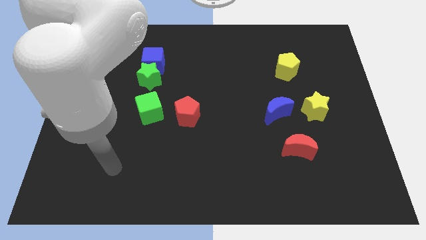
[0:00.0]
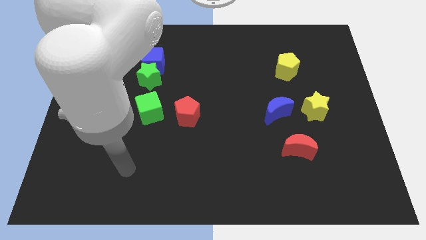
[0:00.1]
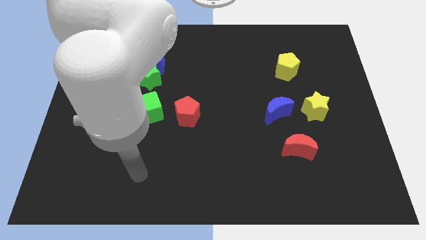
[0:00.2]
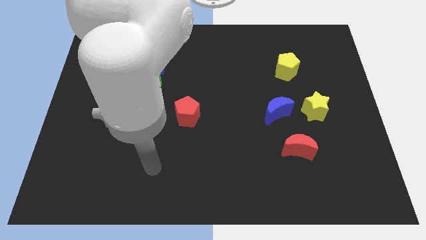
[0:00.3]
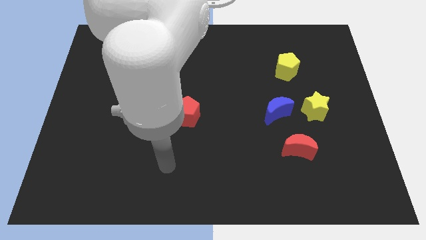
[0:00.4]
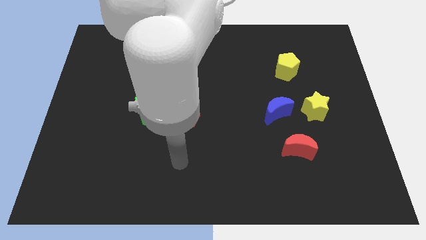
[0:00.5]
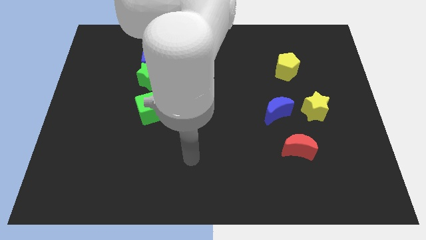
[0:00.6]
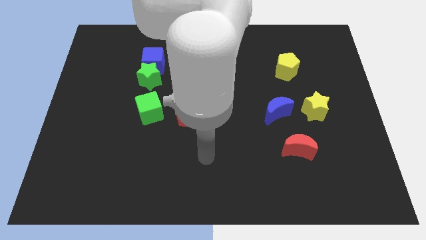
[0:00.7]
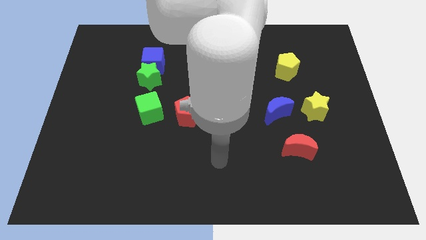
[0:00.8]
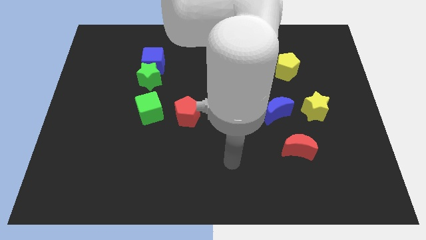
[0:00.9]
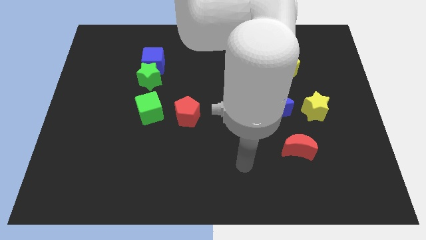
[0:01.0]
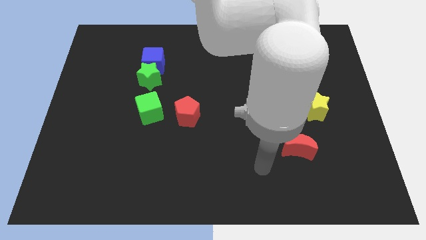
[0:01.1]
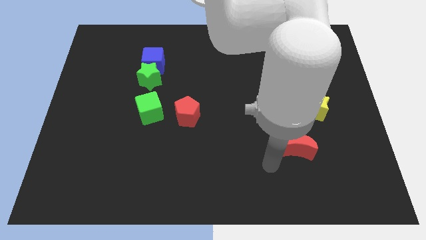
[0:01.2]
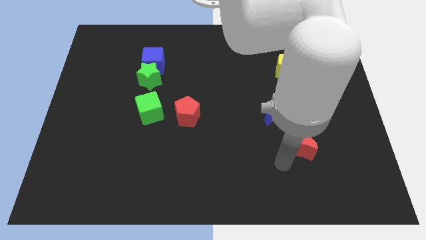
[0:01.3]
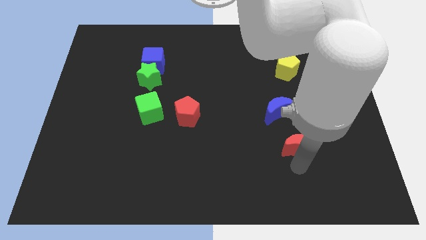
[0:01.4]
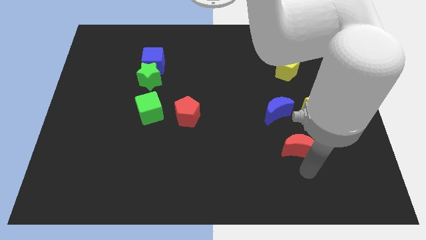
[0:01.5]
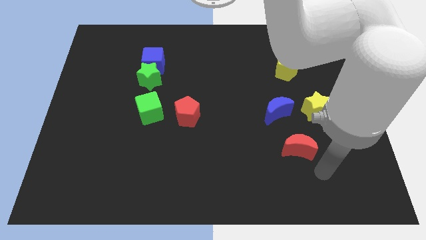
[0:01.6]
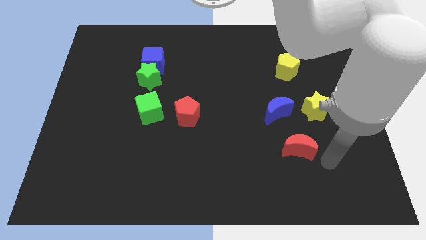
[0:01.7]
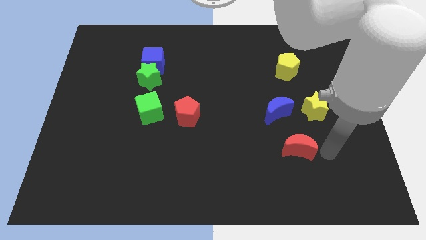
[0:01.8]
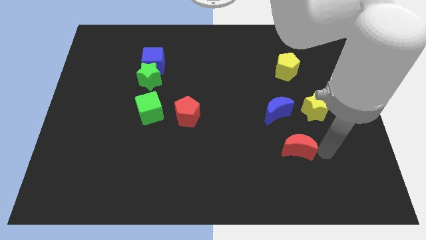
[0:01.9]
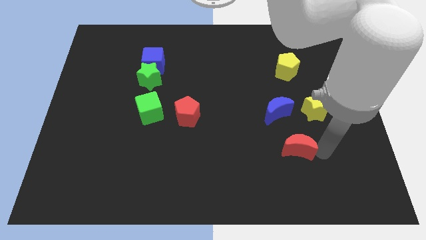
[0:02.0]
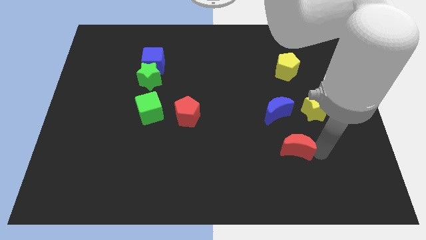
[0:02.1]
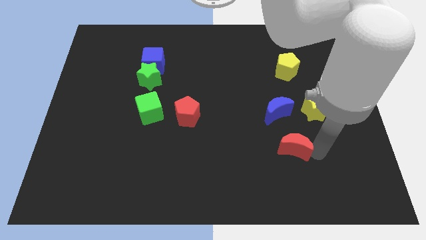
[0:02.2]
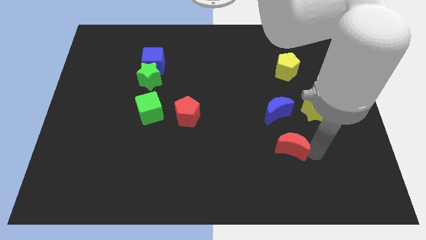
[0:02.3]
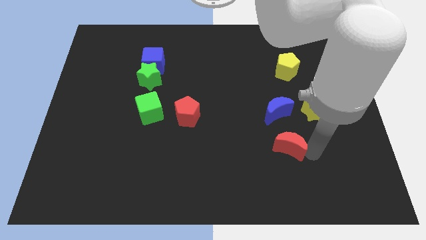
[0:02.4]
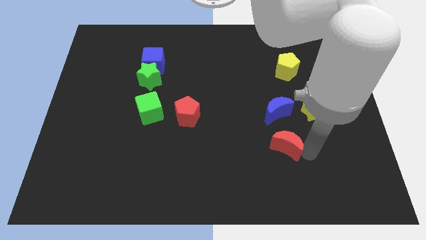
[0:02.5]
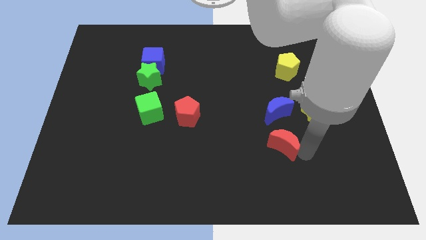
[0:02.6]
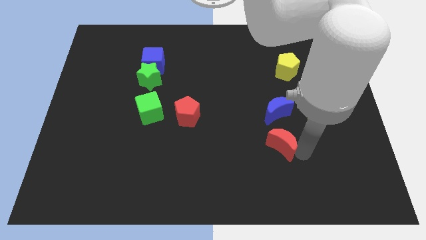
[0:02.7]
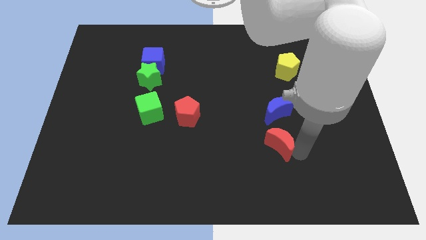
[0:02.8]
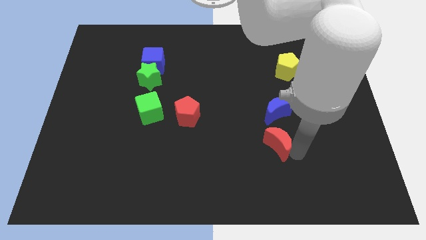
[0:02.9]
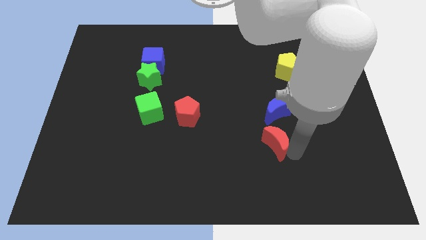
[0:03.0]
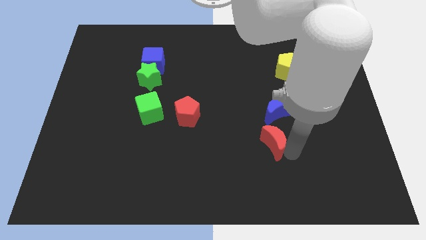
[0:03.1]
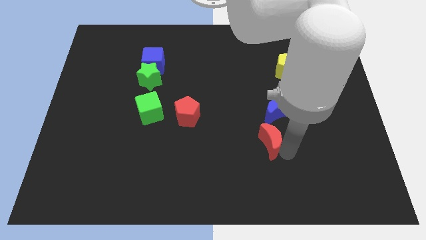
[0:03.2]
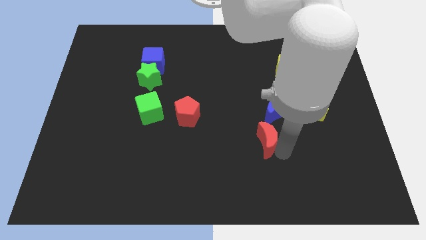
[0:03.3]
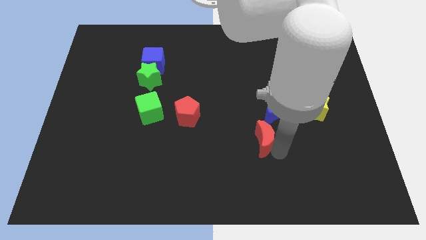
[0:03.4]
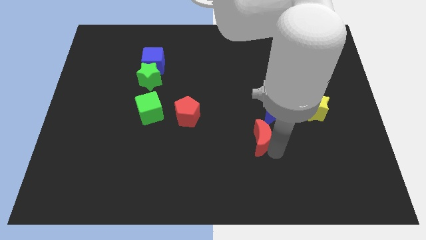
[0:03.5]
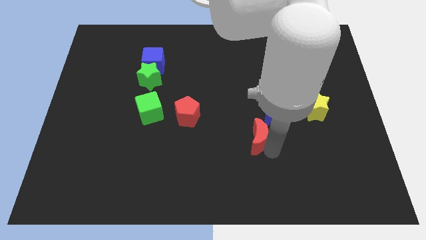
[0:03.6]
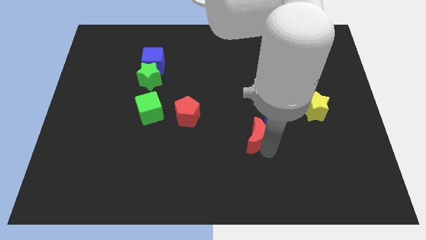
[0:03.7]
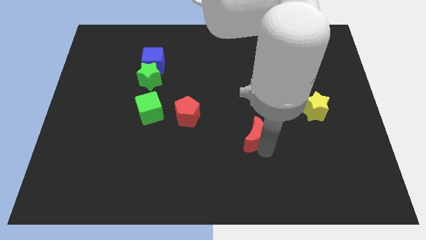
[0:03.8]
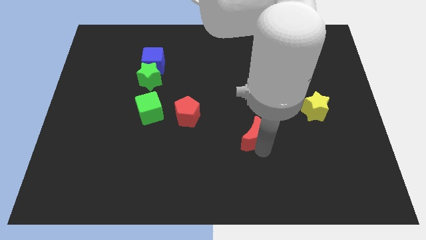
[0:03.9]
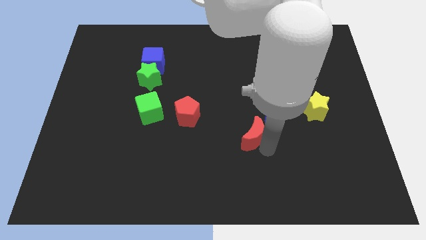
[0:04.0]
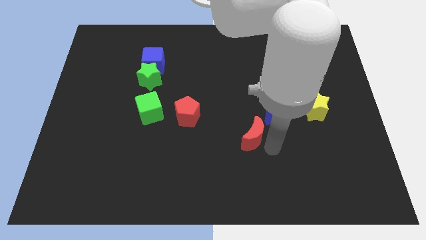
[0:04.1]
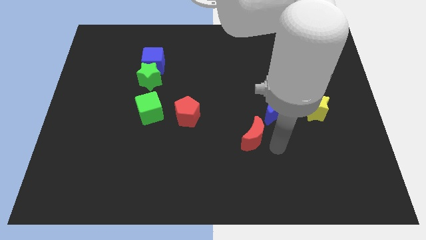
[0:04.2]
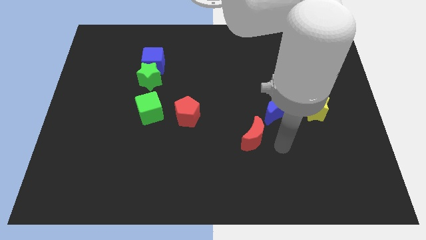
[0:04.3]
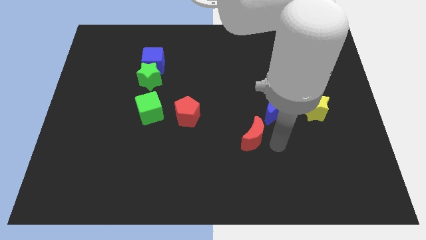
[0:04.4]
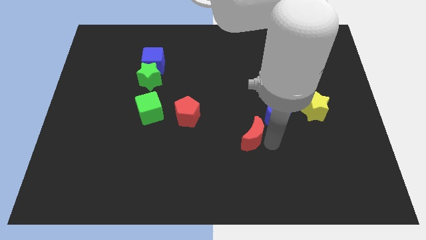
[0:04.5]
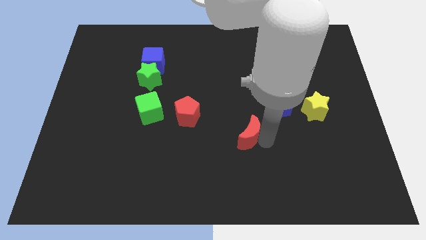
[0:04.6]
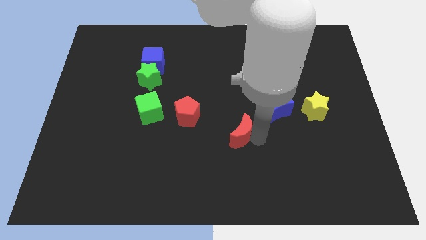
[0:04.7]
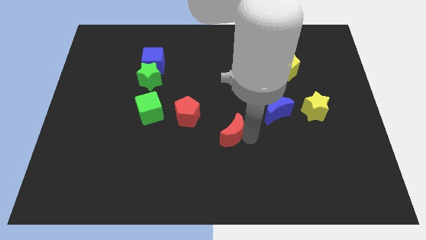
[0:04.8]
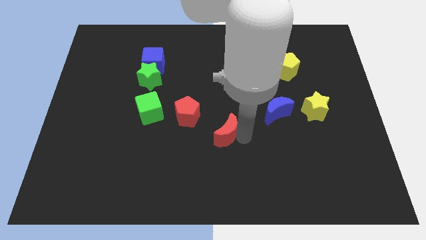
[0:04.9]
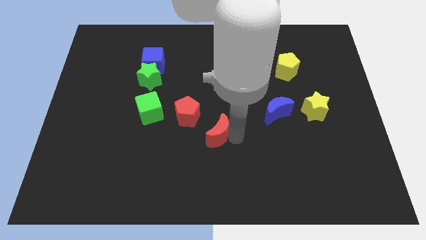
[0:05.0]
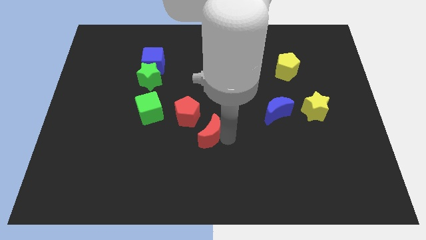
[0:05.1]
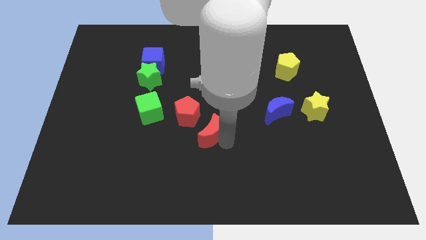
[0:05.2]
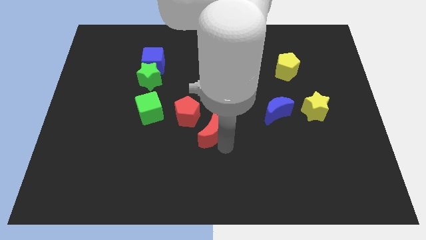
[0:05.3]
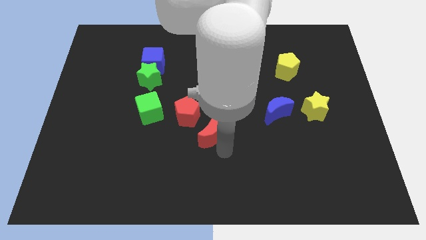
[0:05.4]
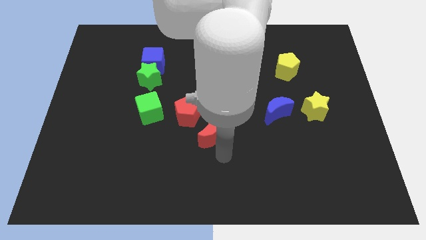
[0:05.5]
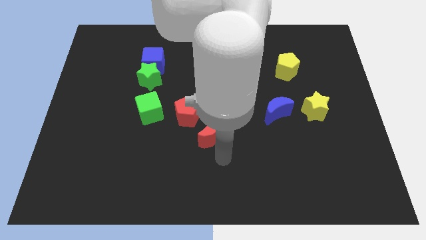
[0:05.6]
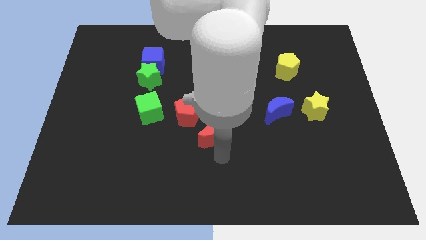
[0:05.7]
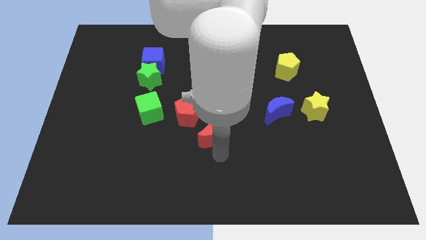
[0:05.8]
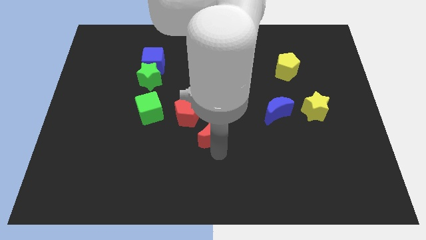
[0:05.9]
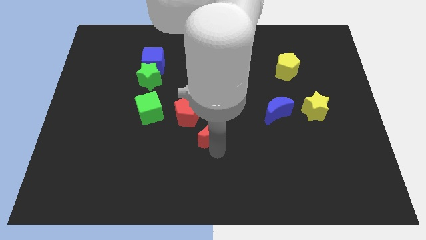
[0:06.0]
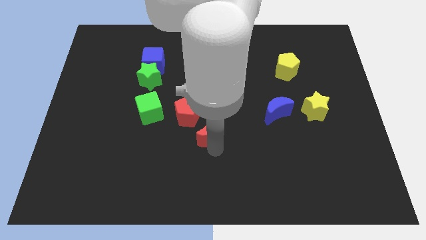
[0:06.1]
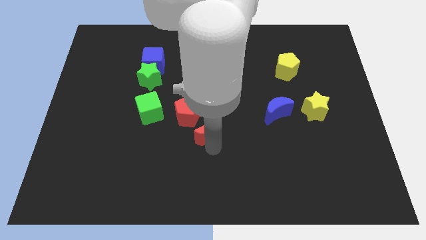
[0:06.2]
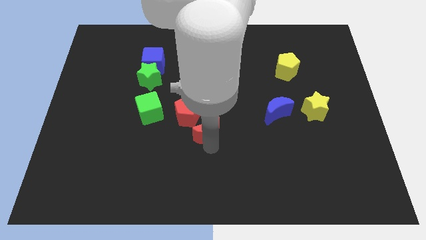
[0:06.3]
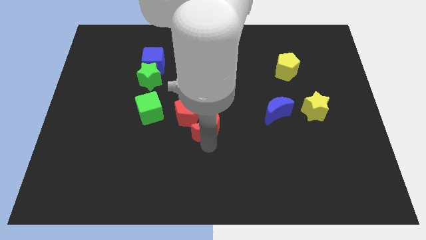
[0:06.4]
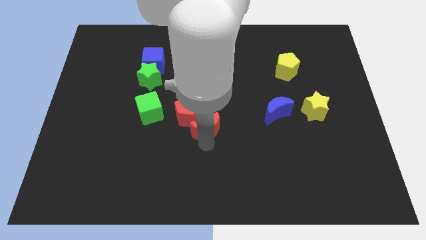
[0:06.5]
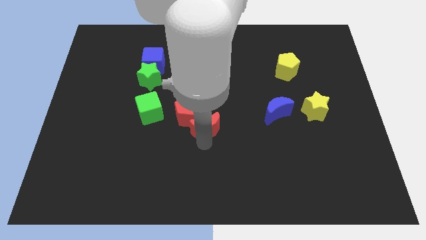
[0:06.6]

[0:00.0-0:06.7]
push the red moon close to the red pentagon

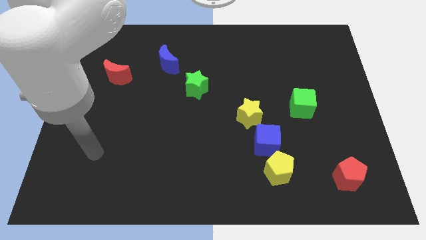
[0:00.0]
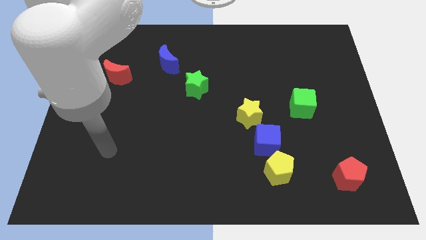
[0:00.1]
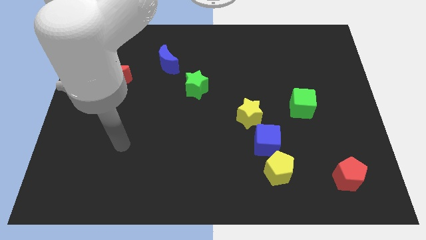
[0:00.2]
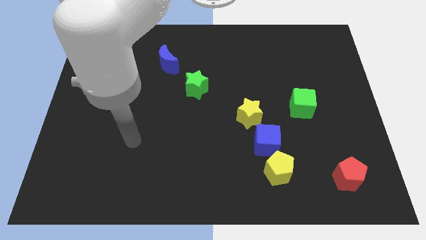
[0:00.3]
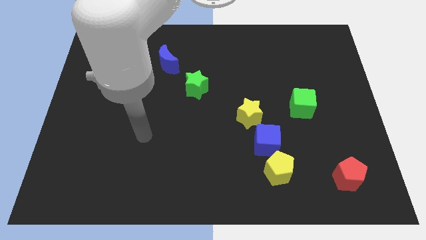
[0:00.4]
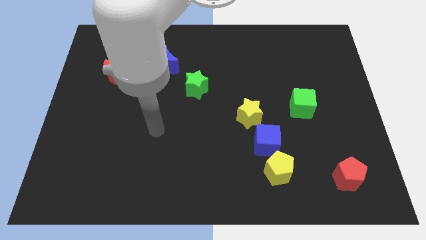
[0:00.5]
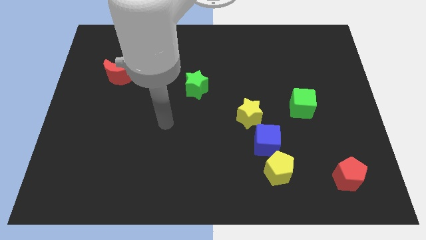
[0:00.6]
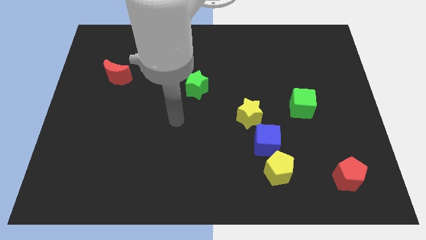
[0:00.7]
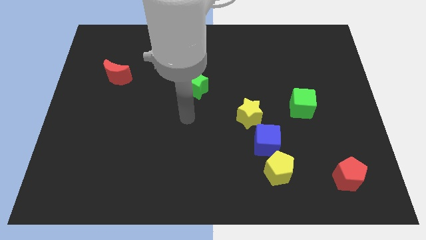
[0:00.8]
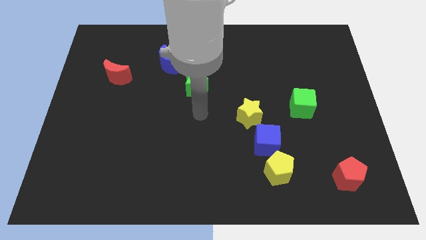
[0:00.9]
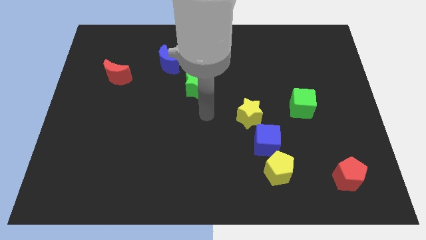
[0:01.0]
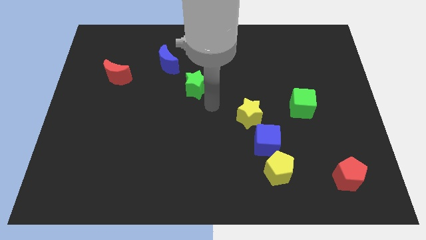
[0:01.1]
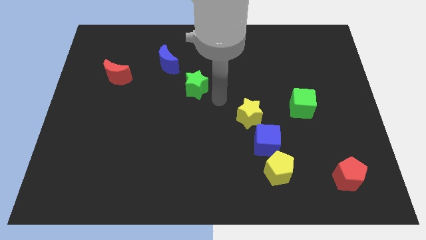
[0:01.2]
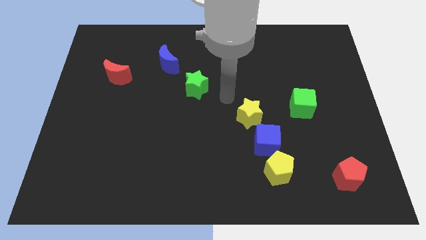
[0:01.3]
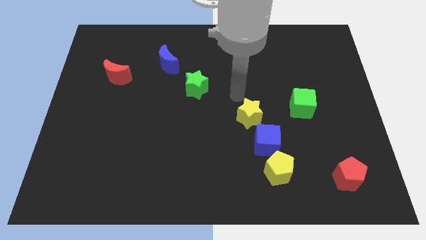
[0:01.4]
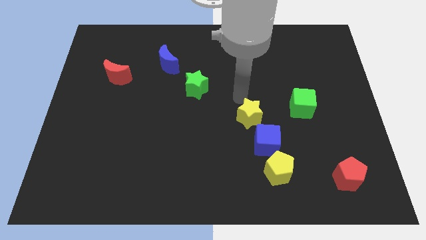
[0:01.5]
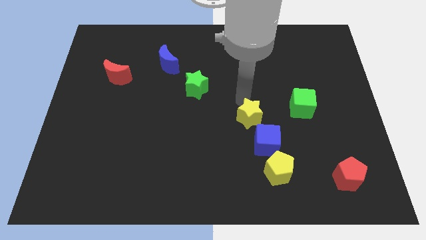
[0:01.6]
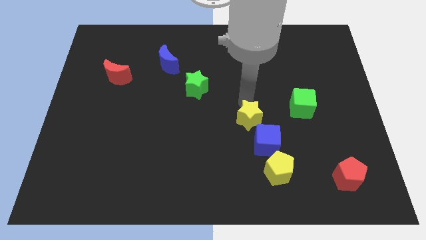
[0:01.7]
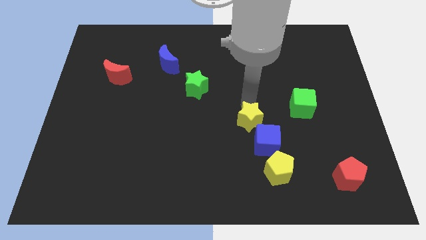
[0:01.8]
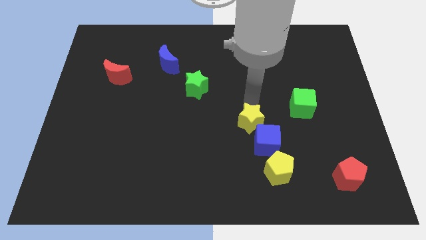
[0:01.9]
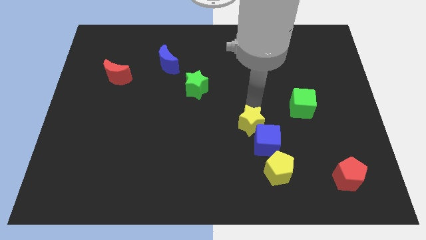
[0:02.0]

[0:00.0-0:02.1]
slide the yellow star close to the blue cube
